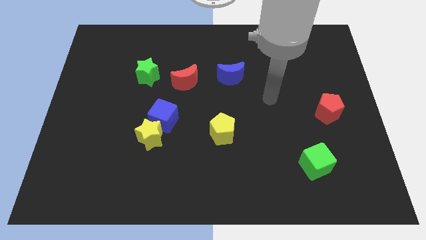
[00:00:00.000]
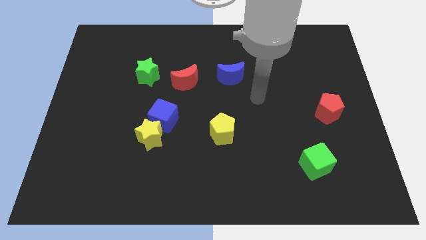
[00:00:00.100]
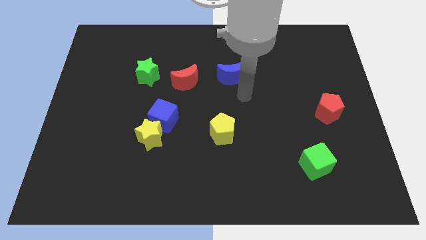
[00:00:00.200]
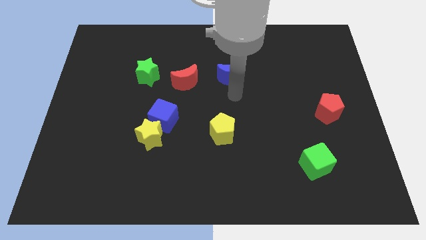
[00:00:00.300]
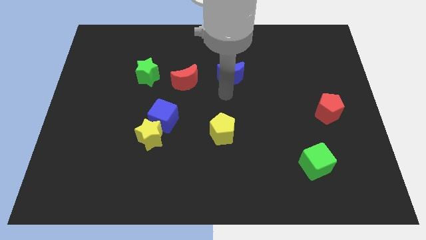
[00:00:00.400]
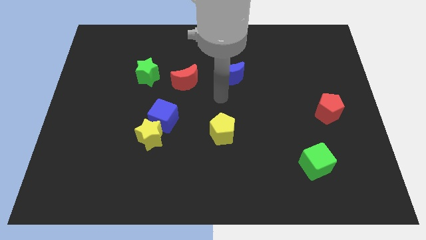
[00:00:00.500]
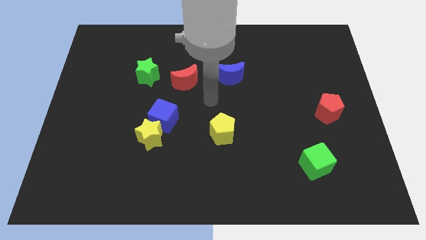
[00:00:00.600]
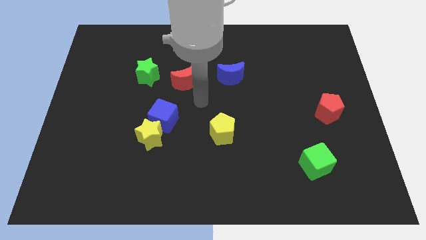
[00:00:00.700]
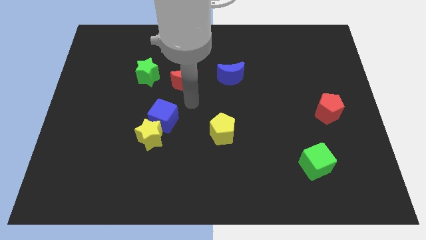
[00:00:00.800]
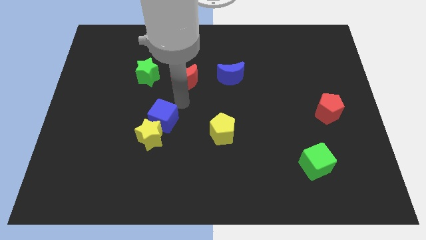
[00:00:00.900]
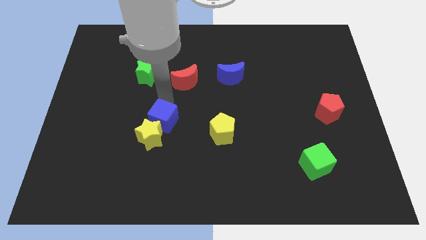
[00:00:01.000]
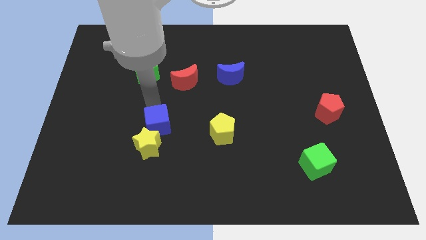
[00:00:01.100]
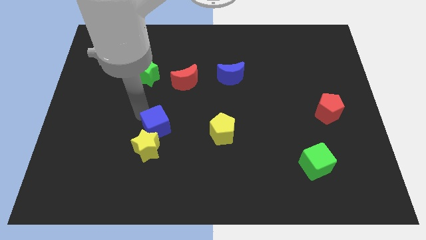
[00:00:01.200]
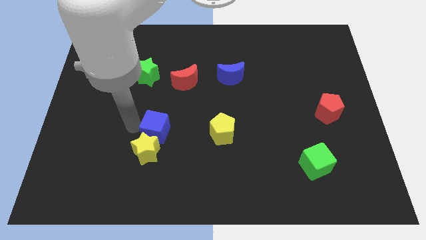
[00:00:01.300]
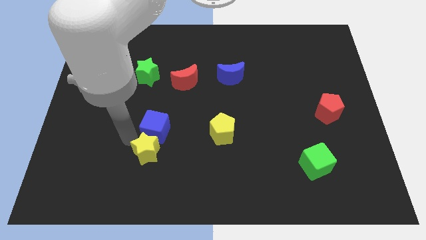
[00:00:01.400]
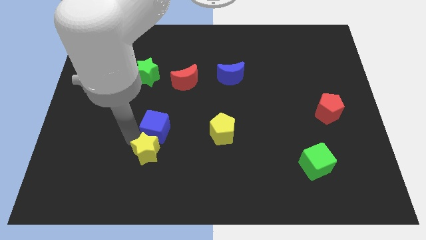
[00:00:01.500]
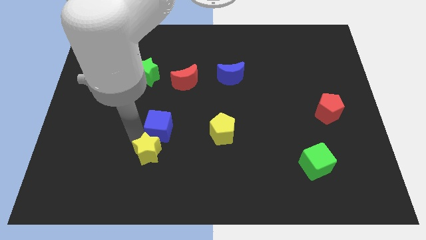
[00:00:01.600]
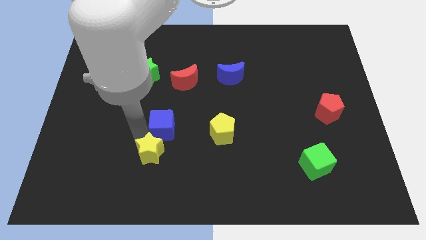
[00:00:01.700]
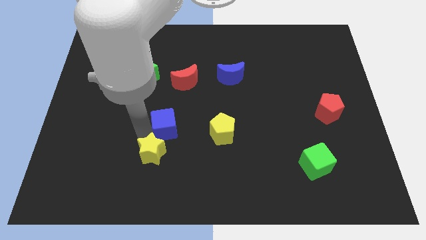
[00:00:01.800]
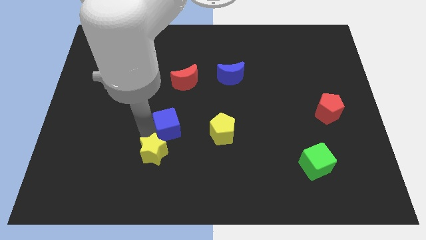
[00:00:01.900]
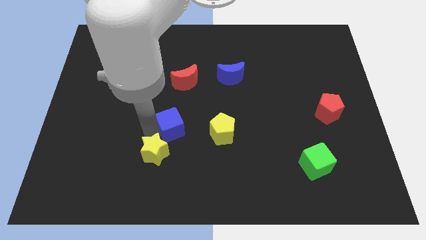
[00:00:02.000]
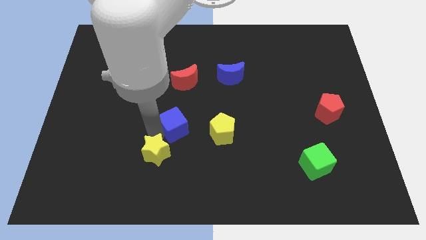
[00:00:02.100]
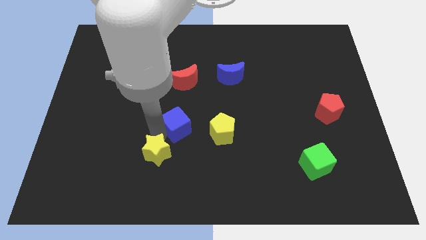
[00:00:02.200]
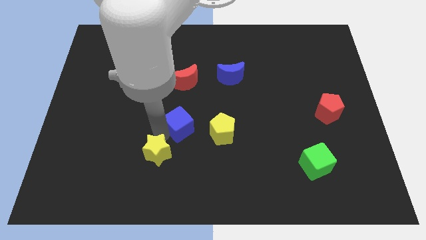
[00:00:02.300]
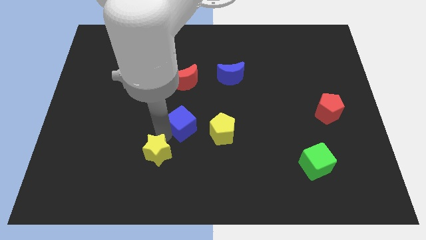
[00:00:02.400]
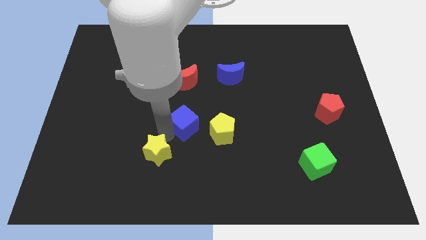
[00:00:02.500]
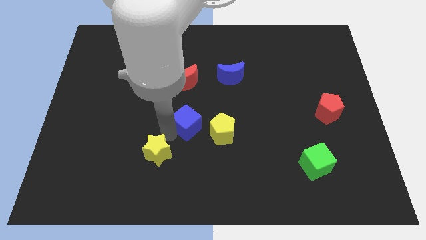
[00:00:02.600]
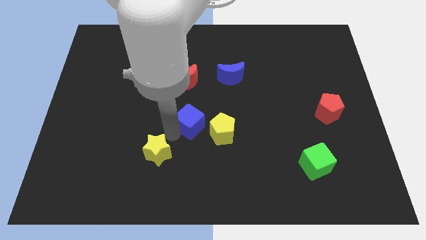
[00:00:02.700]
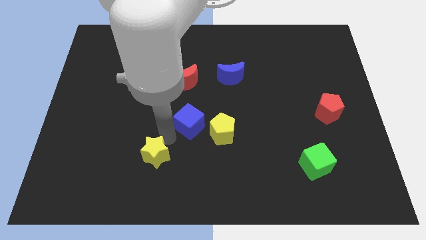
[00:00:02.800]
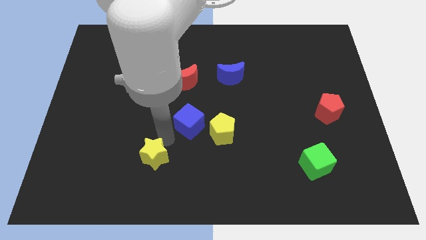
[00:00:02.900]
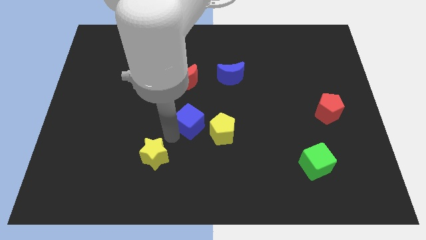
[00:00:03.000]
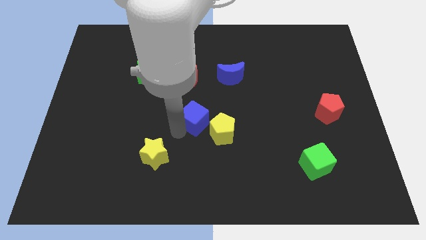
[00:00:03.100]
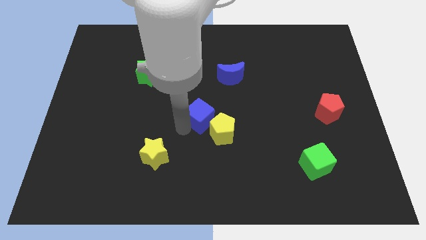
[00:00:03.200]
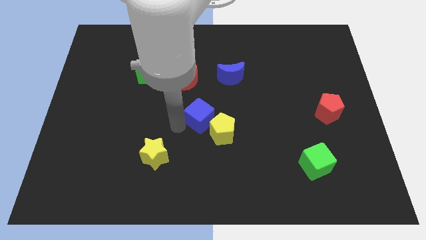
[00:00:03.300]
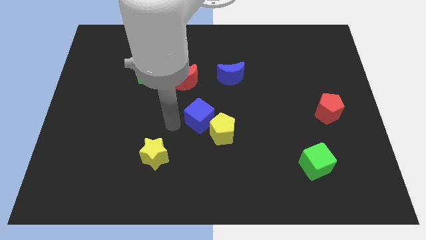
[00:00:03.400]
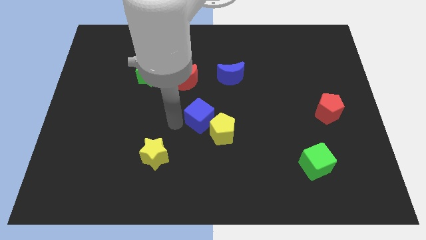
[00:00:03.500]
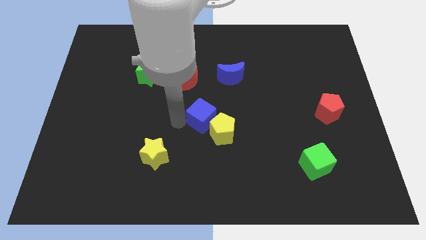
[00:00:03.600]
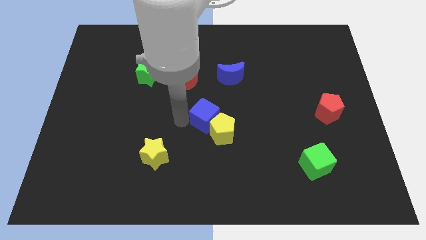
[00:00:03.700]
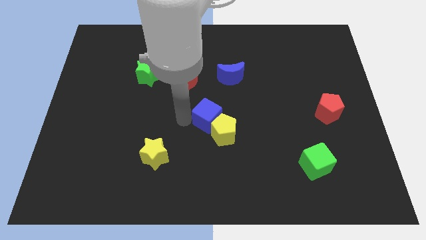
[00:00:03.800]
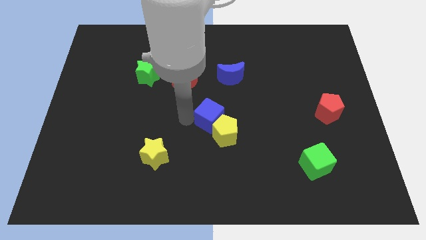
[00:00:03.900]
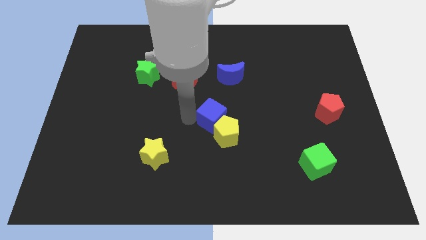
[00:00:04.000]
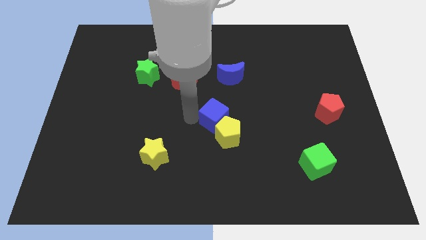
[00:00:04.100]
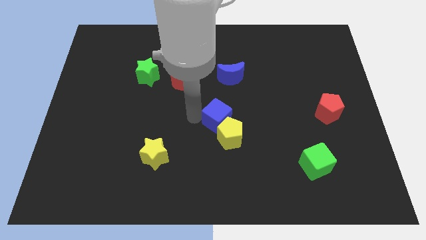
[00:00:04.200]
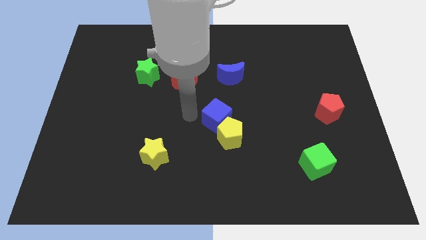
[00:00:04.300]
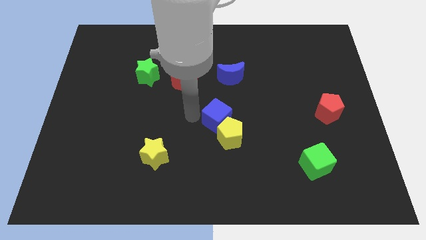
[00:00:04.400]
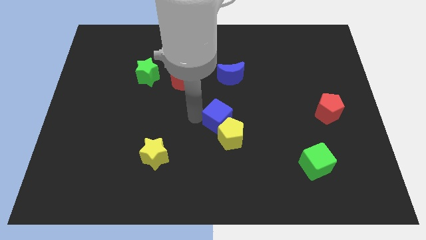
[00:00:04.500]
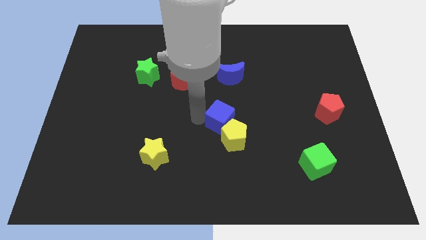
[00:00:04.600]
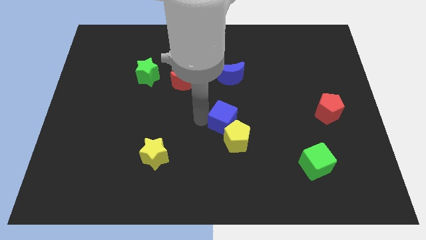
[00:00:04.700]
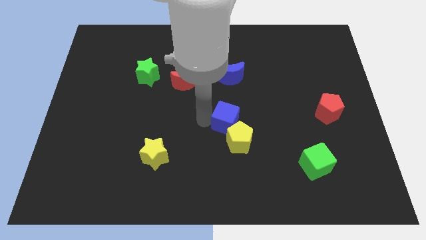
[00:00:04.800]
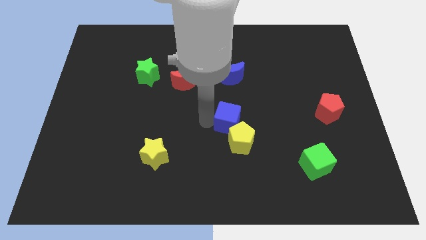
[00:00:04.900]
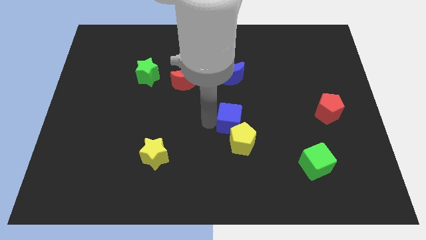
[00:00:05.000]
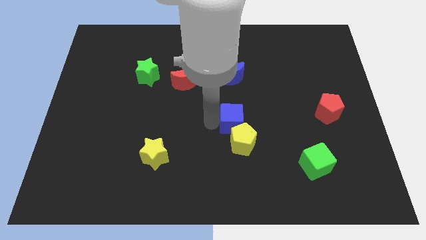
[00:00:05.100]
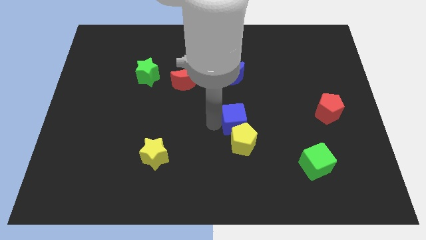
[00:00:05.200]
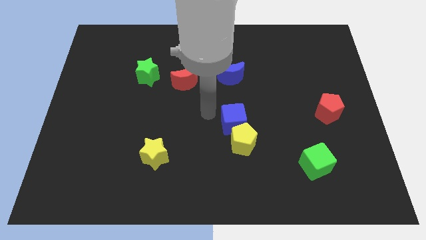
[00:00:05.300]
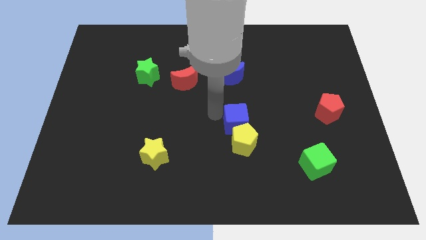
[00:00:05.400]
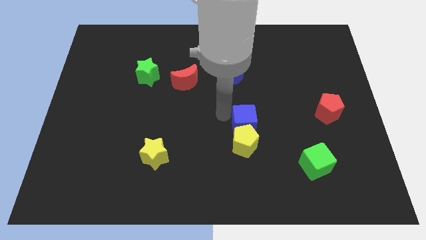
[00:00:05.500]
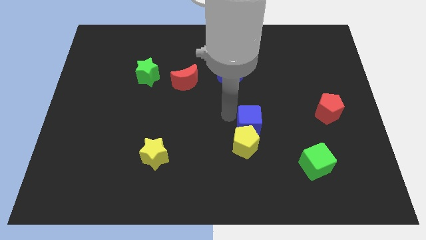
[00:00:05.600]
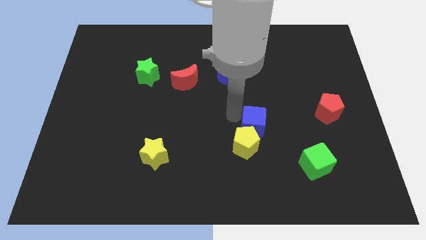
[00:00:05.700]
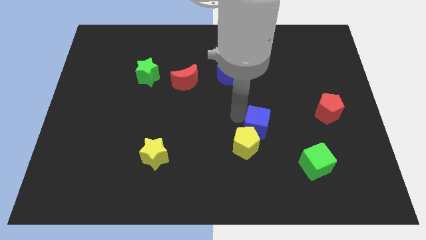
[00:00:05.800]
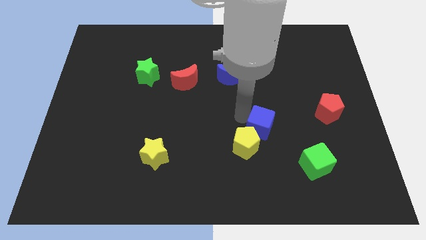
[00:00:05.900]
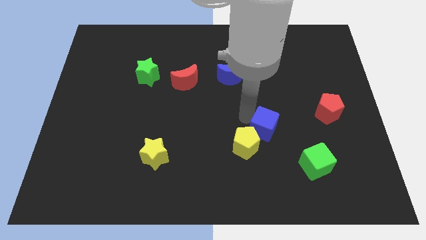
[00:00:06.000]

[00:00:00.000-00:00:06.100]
slide the blue cube just right of the yellow pentagon

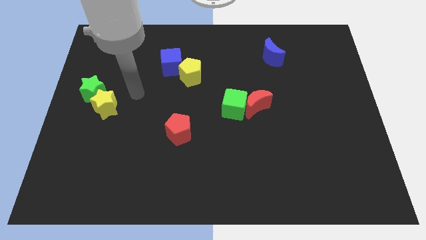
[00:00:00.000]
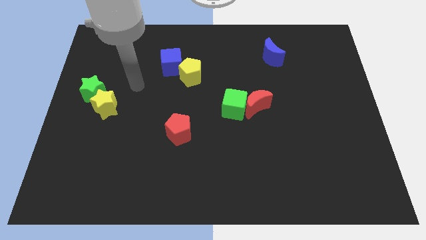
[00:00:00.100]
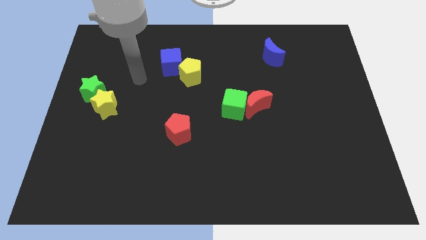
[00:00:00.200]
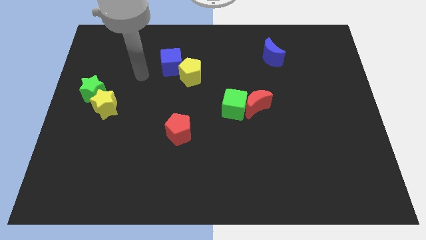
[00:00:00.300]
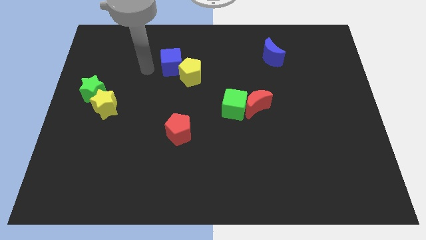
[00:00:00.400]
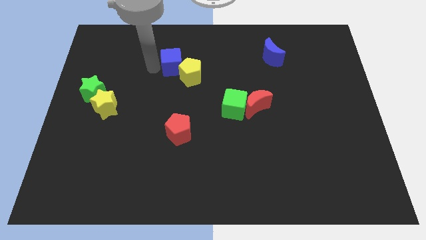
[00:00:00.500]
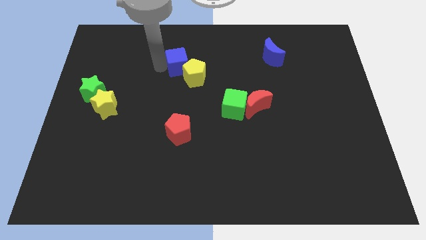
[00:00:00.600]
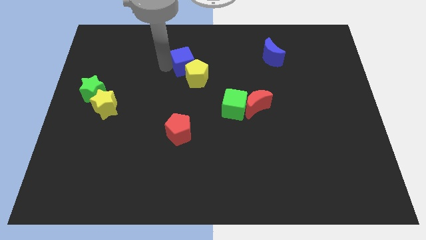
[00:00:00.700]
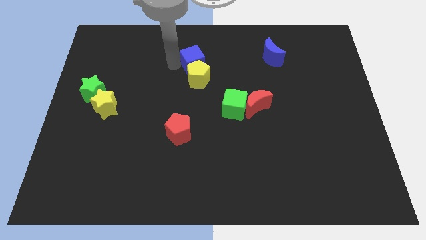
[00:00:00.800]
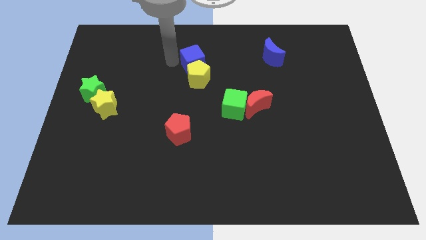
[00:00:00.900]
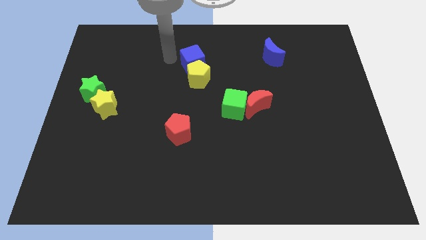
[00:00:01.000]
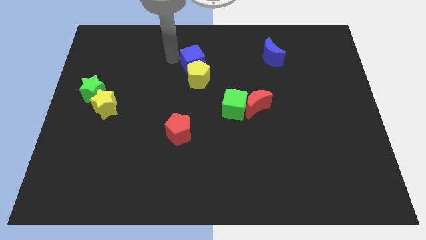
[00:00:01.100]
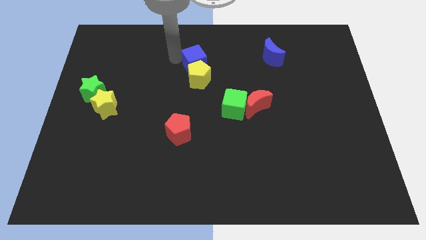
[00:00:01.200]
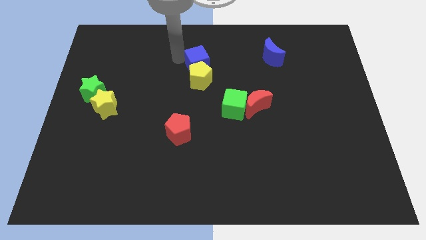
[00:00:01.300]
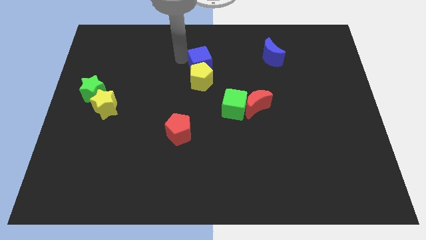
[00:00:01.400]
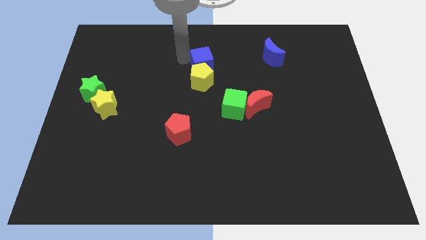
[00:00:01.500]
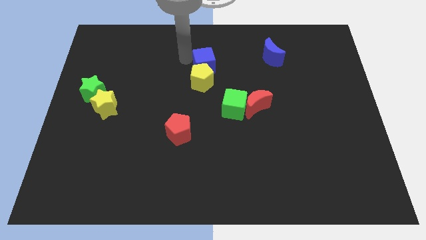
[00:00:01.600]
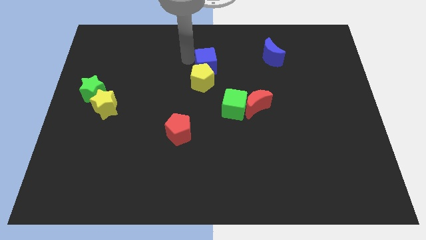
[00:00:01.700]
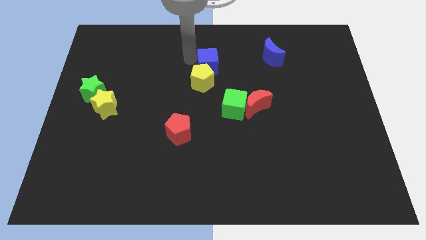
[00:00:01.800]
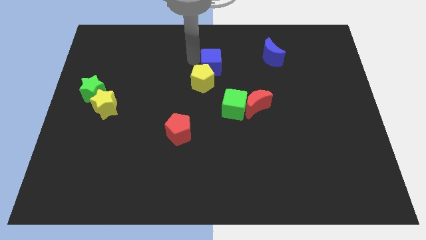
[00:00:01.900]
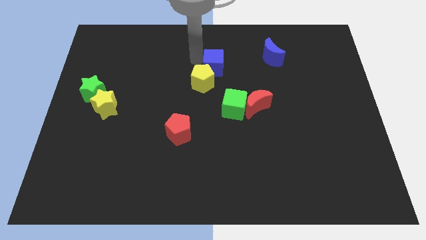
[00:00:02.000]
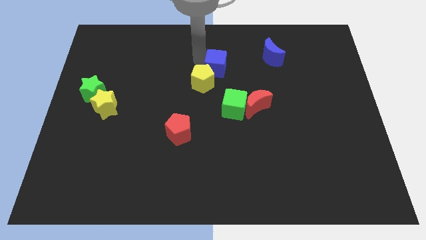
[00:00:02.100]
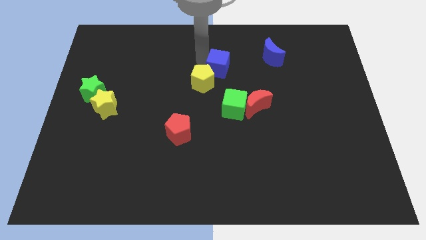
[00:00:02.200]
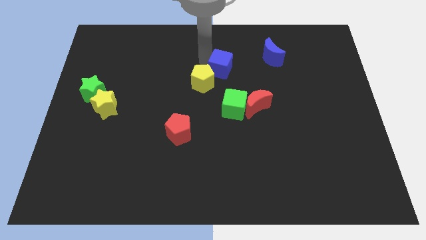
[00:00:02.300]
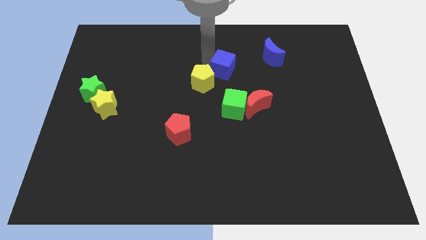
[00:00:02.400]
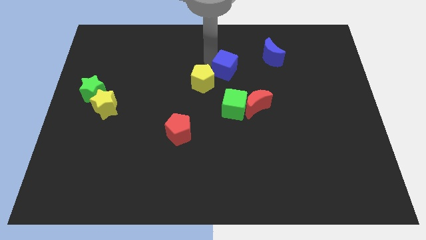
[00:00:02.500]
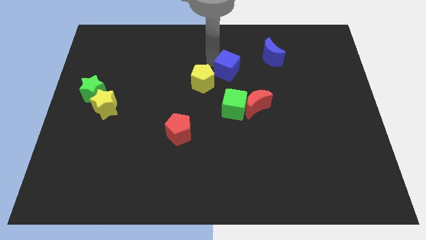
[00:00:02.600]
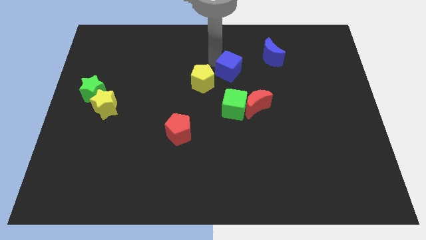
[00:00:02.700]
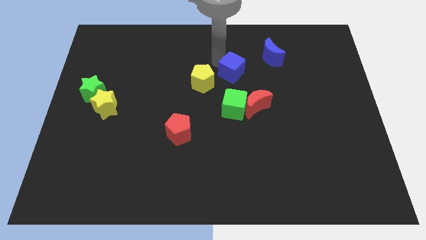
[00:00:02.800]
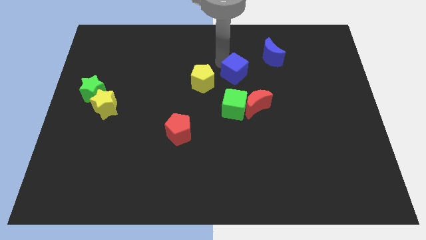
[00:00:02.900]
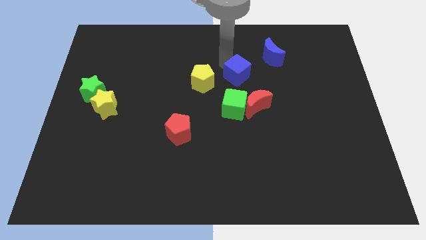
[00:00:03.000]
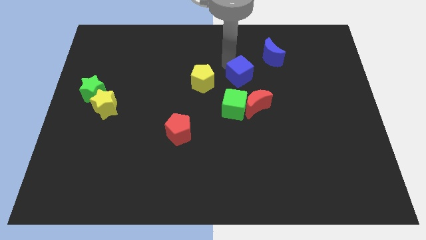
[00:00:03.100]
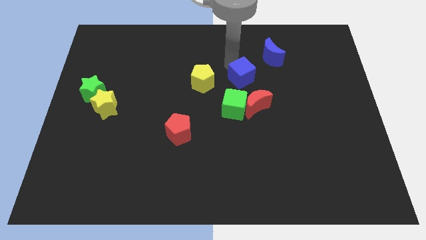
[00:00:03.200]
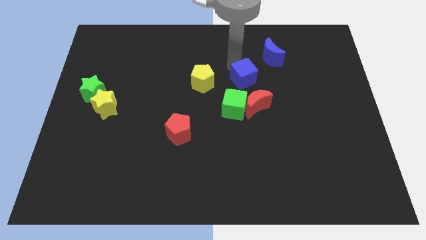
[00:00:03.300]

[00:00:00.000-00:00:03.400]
push the blue cube to the top right of the green cube
